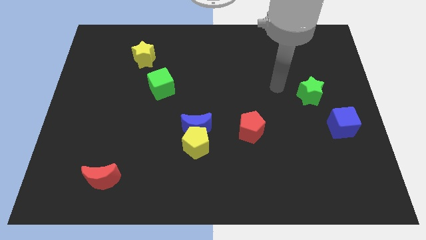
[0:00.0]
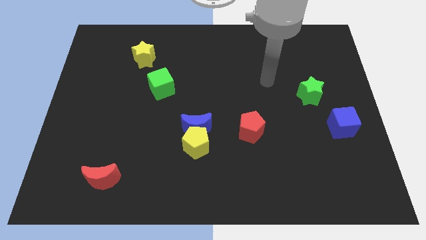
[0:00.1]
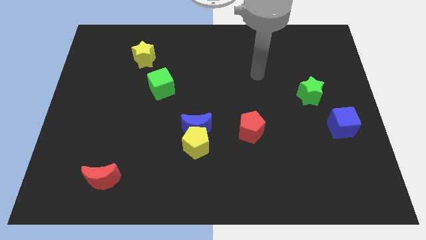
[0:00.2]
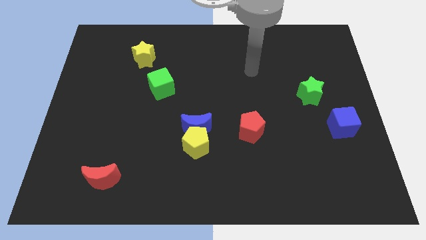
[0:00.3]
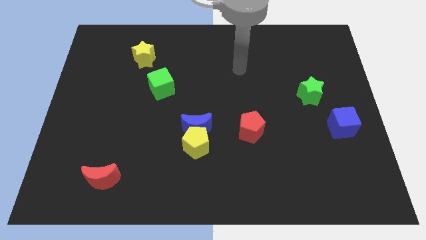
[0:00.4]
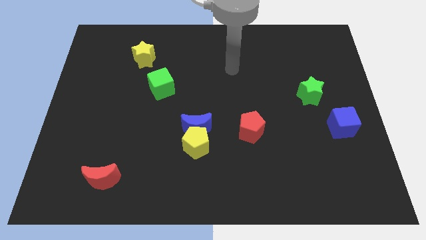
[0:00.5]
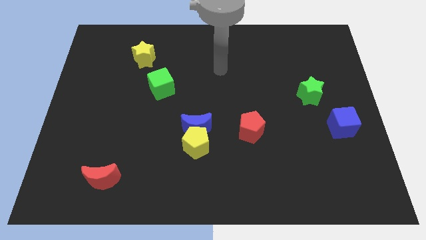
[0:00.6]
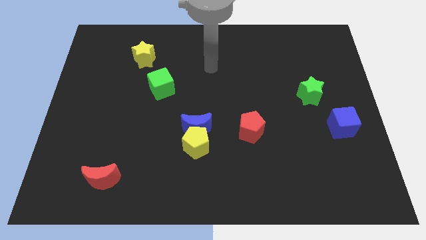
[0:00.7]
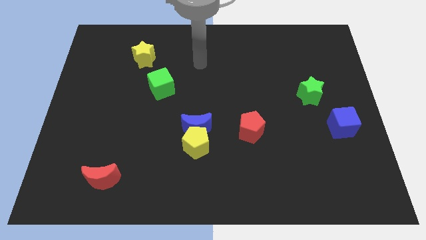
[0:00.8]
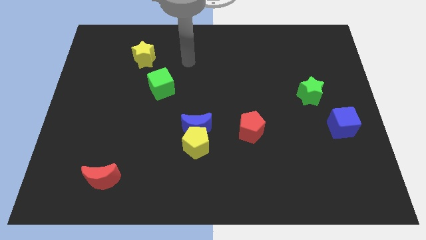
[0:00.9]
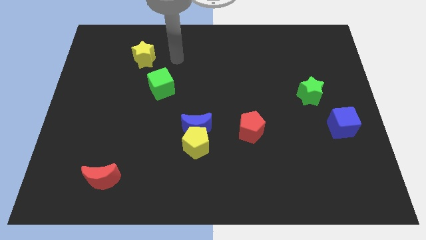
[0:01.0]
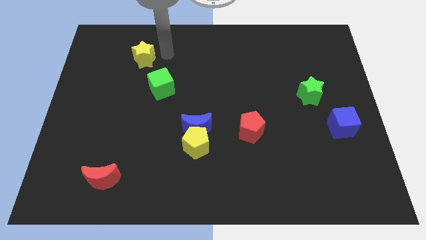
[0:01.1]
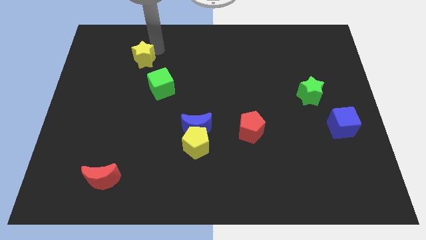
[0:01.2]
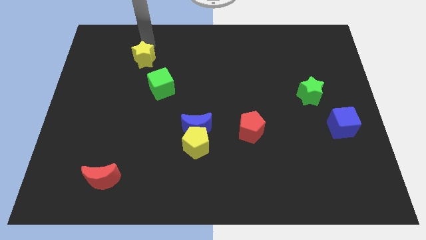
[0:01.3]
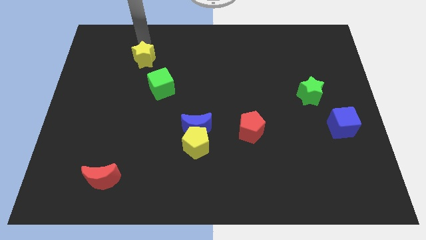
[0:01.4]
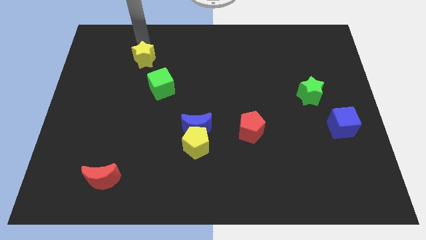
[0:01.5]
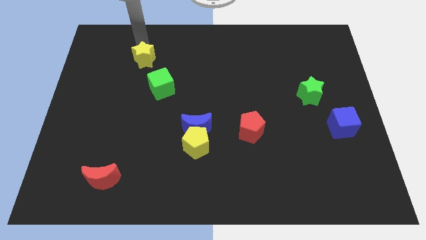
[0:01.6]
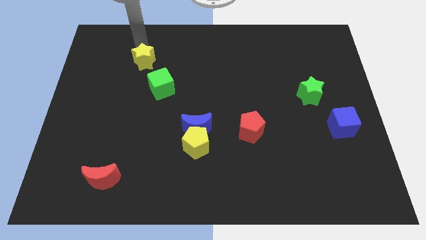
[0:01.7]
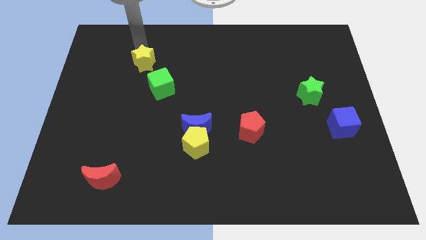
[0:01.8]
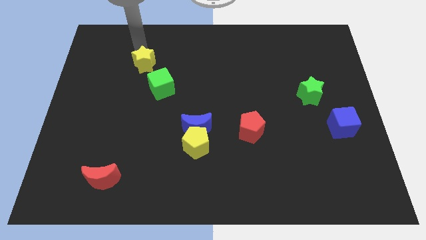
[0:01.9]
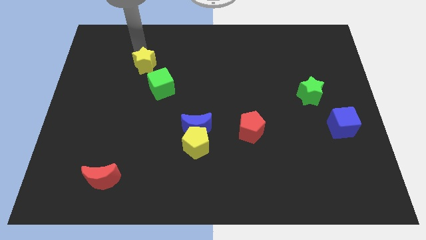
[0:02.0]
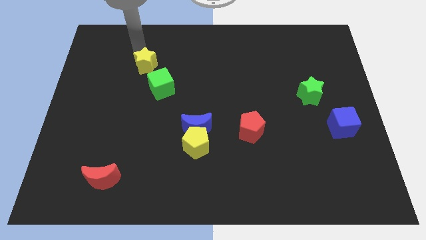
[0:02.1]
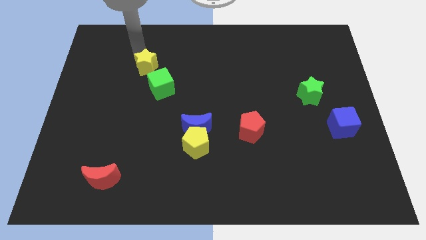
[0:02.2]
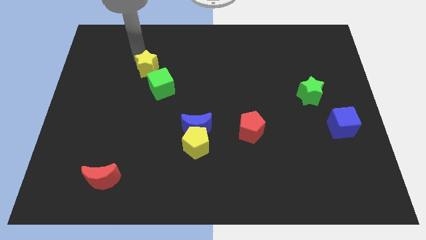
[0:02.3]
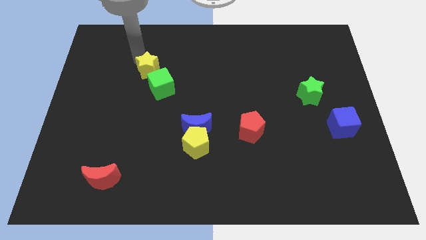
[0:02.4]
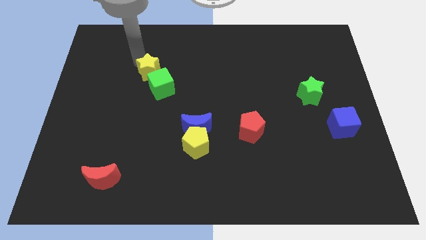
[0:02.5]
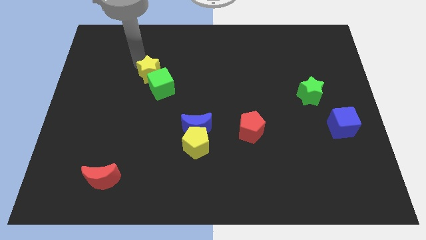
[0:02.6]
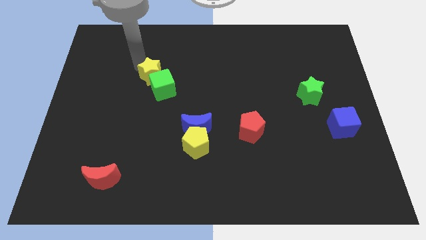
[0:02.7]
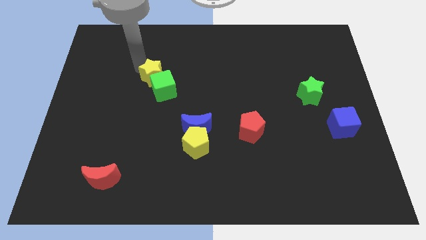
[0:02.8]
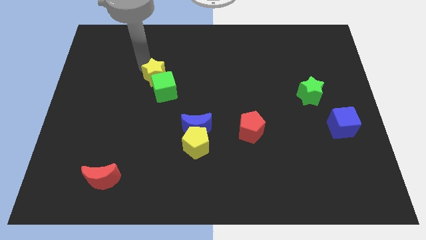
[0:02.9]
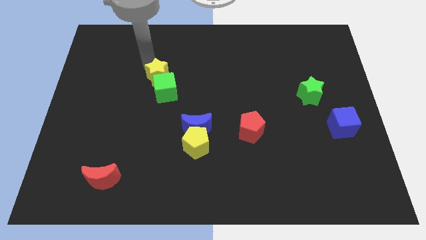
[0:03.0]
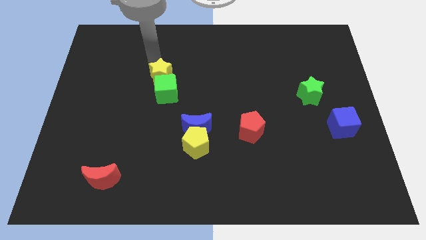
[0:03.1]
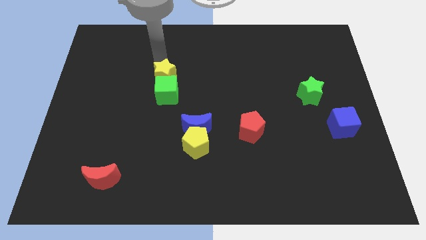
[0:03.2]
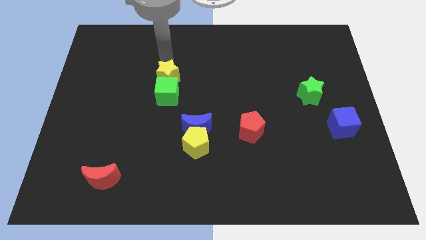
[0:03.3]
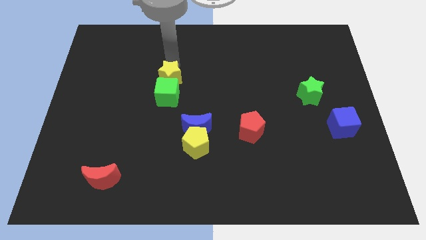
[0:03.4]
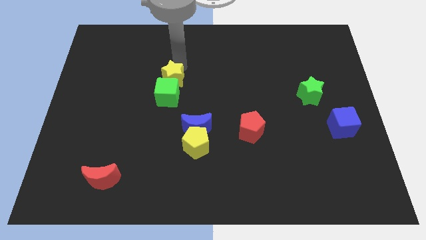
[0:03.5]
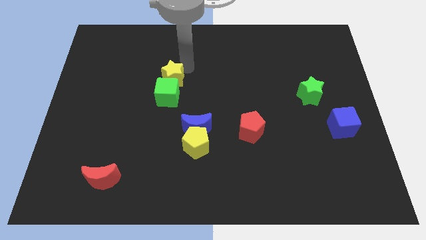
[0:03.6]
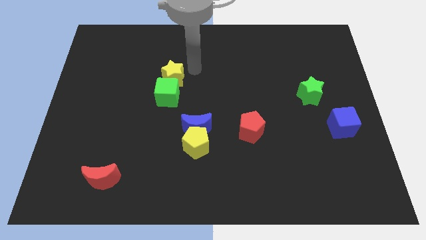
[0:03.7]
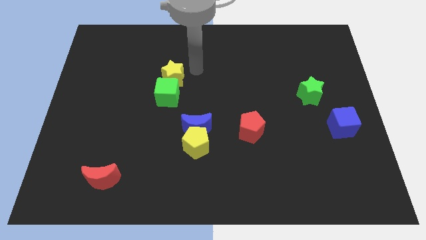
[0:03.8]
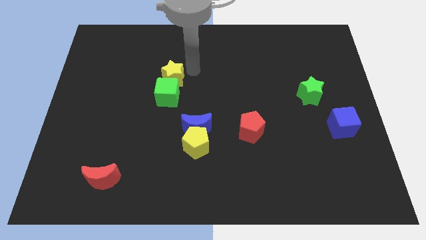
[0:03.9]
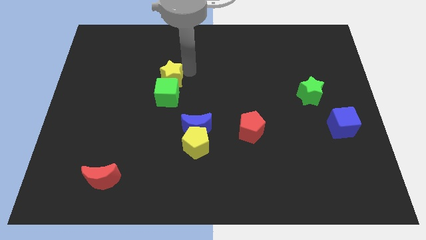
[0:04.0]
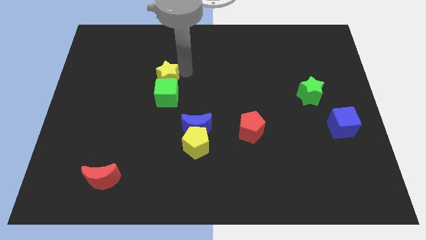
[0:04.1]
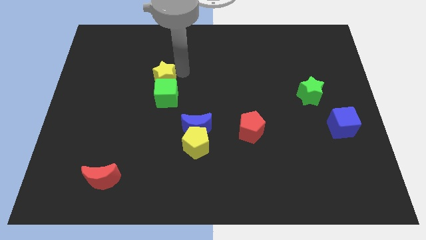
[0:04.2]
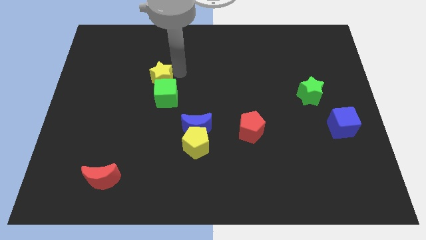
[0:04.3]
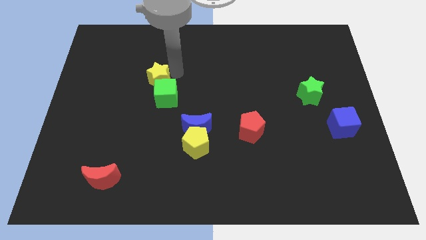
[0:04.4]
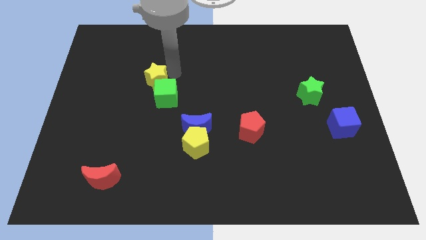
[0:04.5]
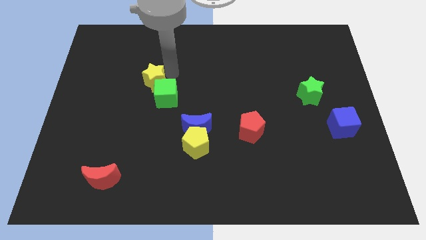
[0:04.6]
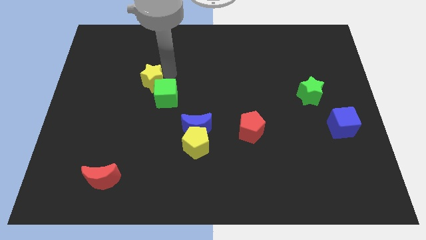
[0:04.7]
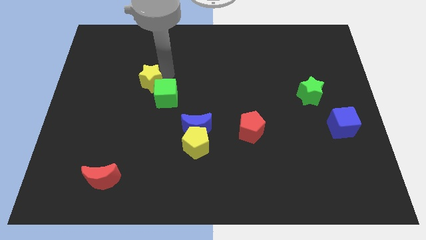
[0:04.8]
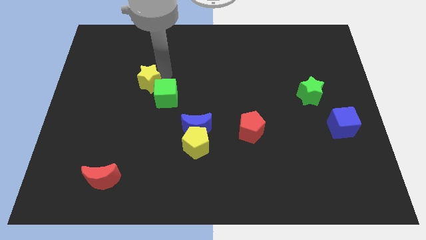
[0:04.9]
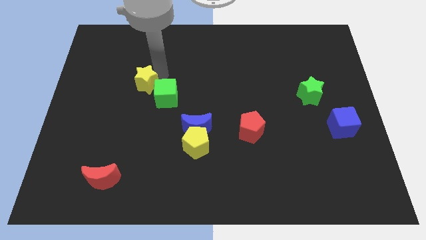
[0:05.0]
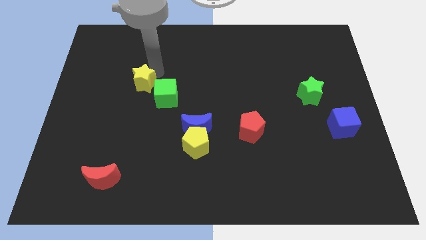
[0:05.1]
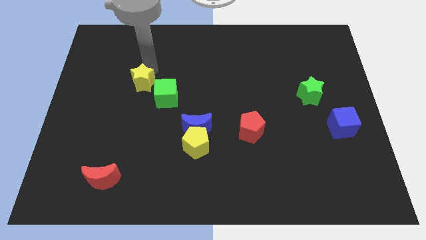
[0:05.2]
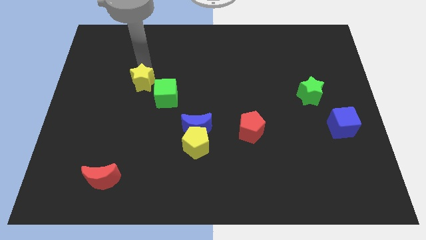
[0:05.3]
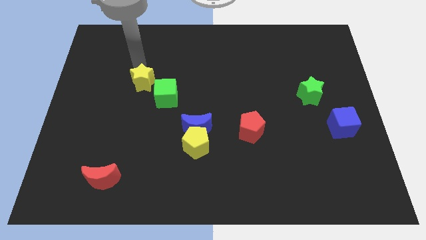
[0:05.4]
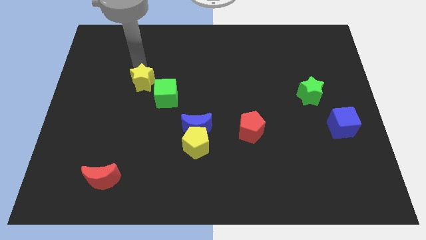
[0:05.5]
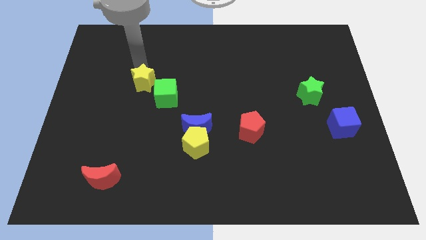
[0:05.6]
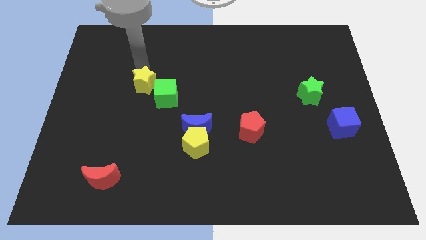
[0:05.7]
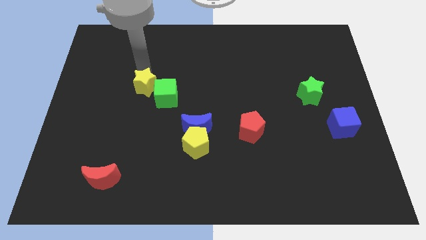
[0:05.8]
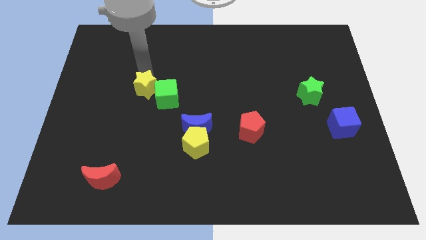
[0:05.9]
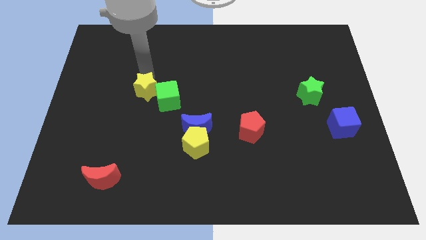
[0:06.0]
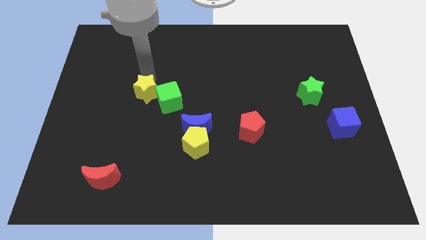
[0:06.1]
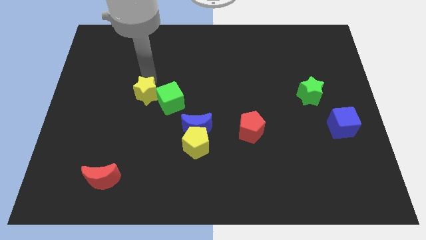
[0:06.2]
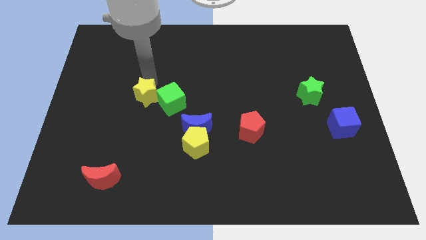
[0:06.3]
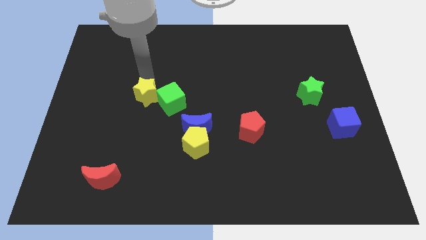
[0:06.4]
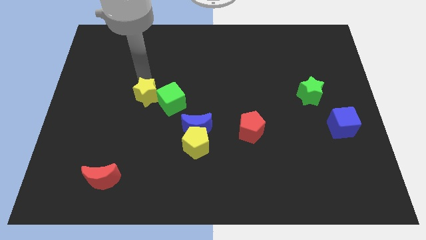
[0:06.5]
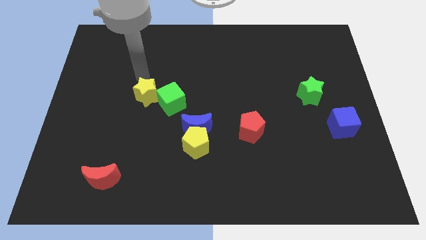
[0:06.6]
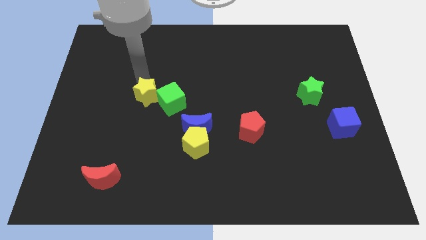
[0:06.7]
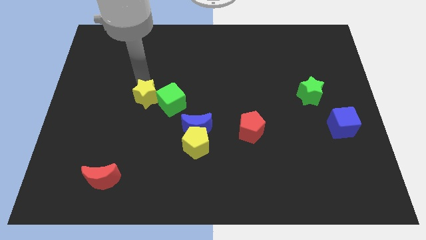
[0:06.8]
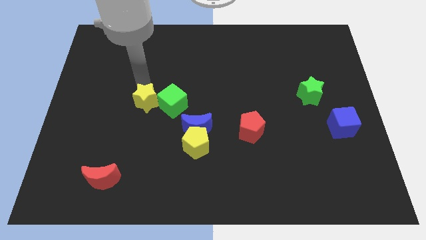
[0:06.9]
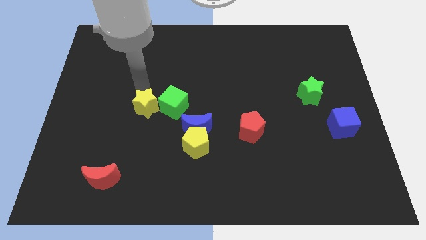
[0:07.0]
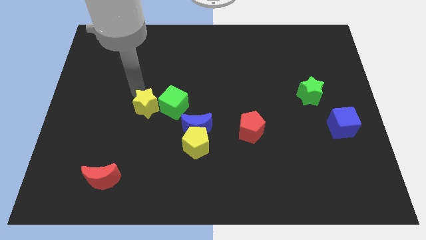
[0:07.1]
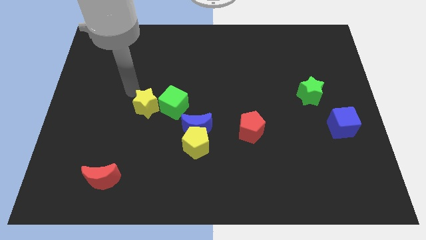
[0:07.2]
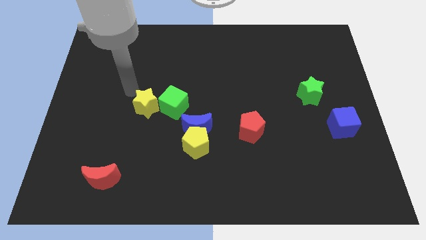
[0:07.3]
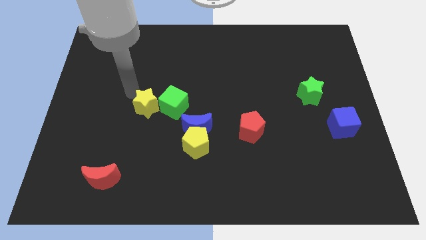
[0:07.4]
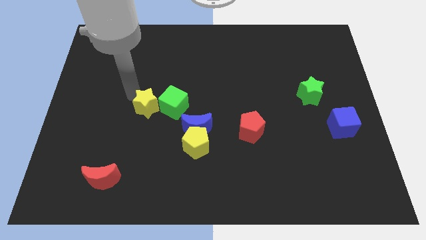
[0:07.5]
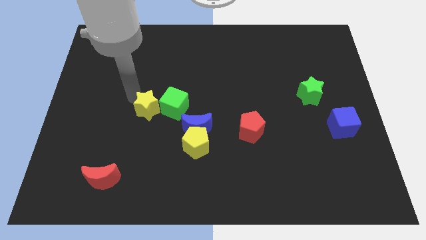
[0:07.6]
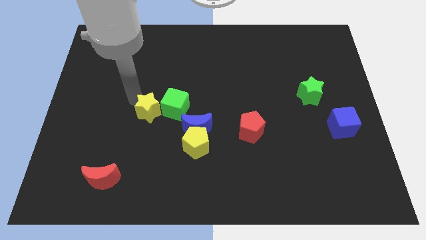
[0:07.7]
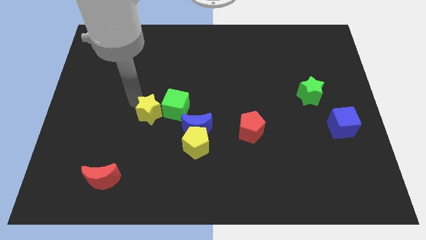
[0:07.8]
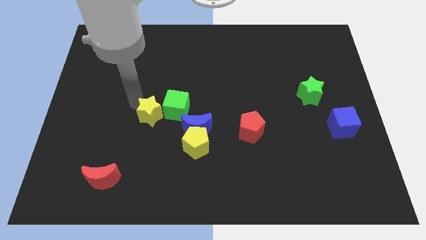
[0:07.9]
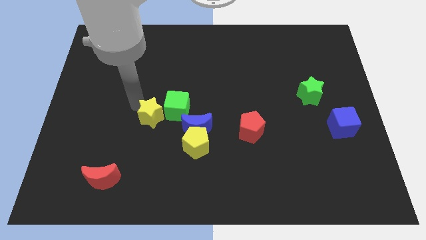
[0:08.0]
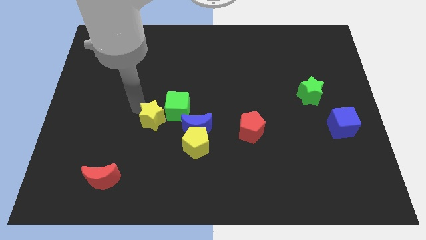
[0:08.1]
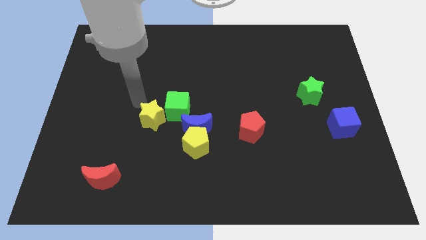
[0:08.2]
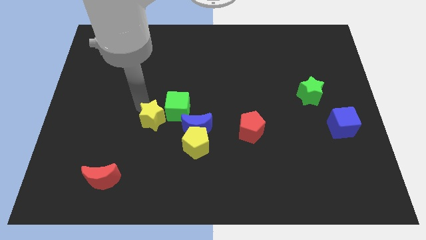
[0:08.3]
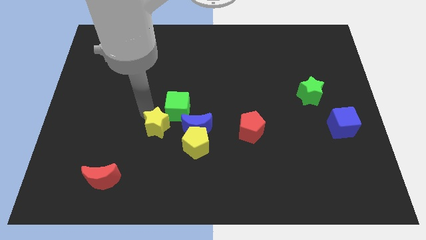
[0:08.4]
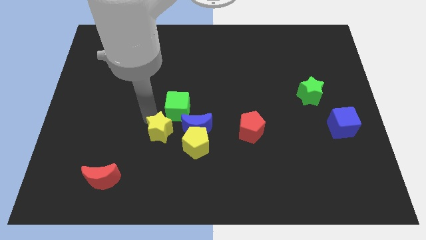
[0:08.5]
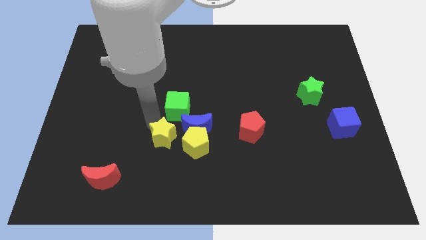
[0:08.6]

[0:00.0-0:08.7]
move the yellow star to the bottom left of the blue moon
